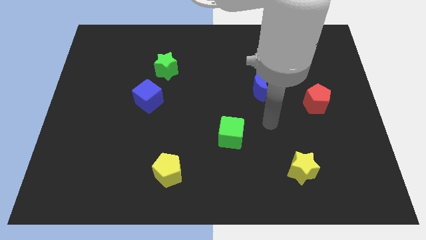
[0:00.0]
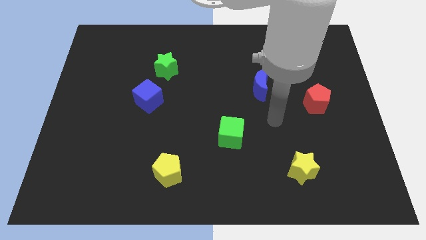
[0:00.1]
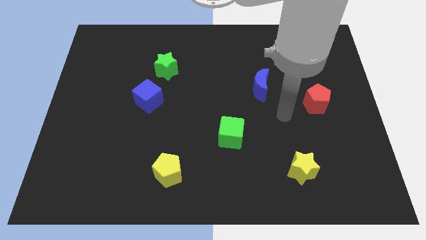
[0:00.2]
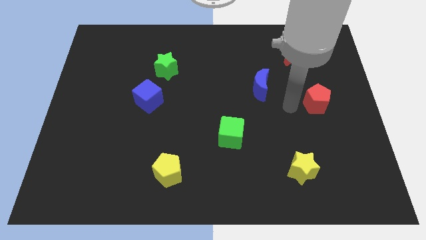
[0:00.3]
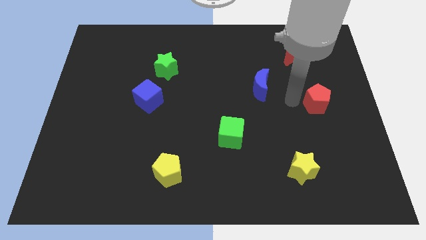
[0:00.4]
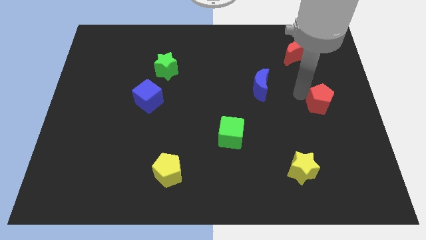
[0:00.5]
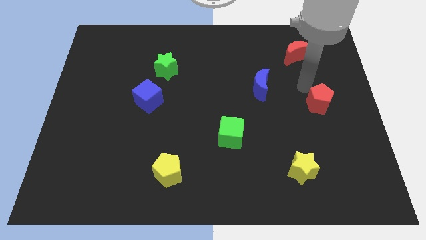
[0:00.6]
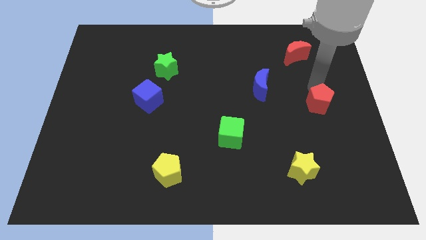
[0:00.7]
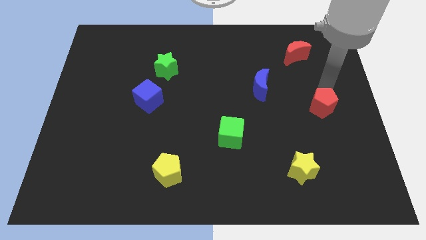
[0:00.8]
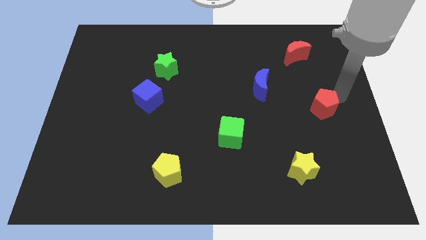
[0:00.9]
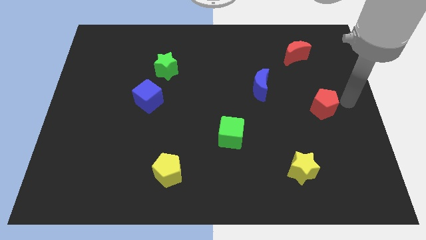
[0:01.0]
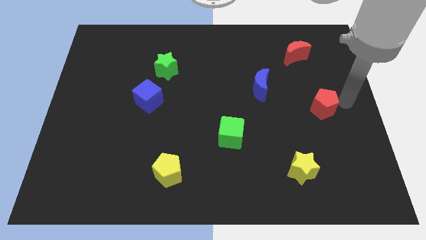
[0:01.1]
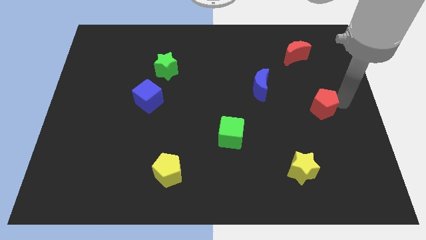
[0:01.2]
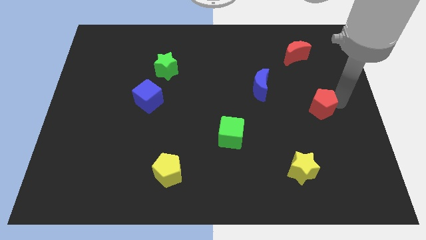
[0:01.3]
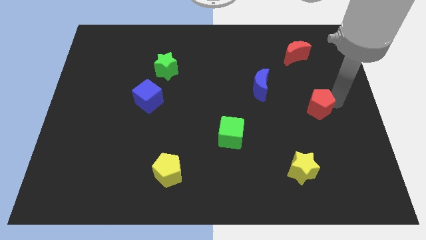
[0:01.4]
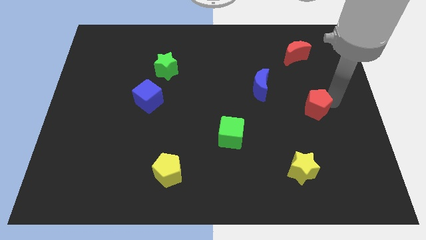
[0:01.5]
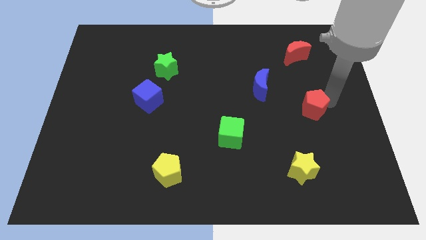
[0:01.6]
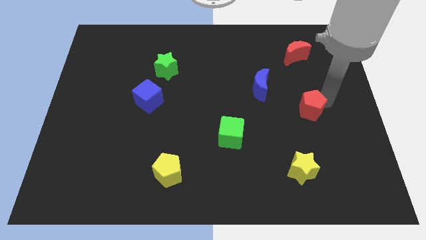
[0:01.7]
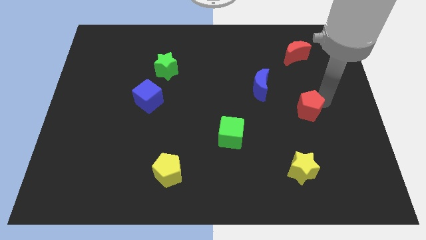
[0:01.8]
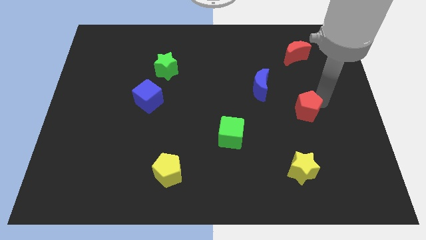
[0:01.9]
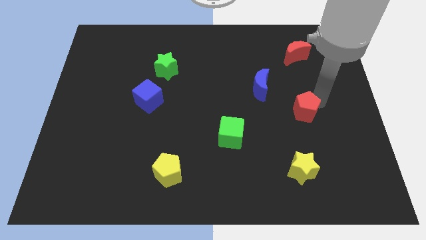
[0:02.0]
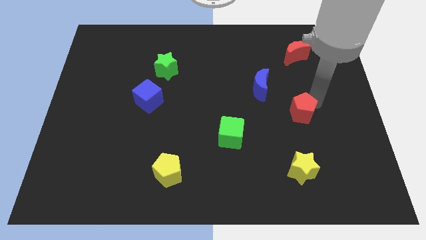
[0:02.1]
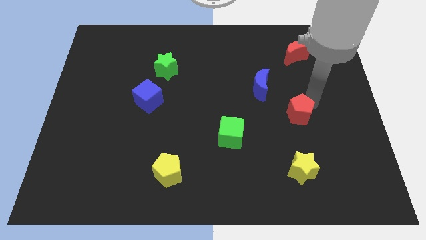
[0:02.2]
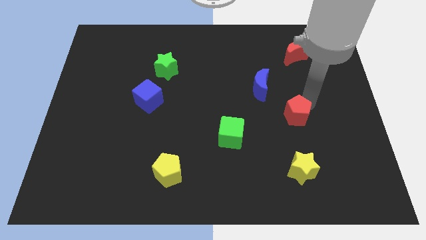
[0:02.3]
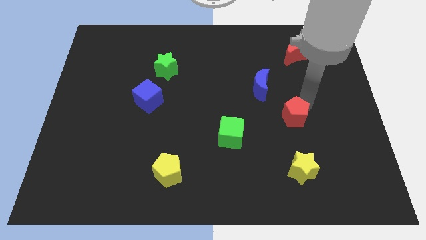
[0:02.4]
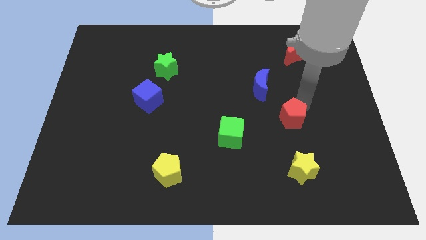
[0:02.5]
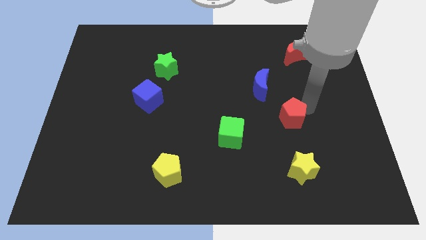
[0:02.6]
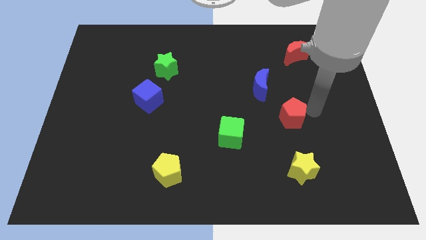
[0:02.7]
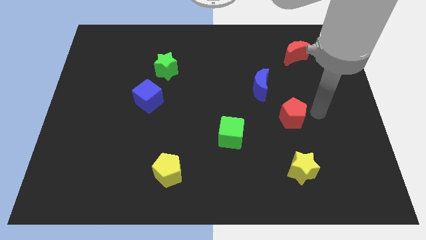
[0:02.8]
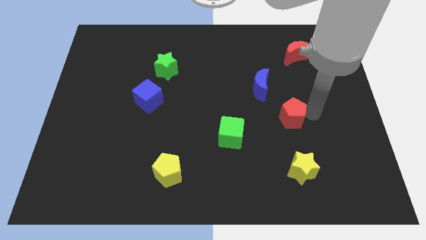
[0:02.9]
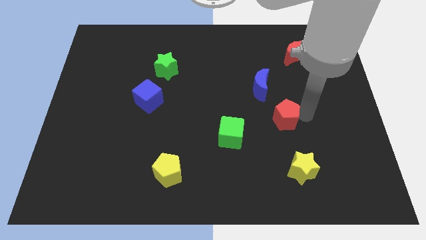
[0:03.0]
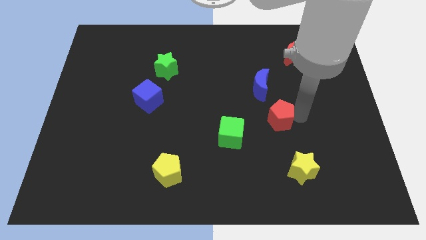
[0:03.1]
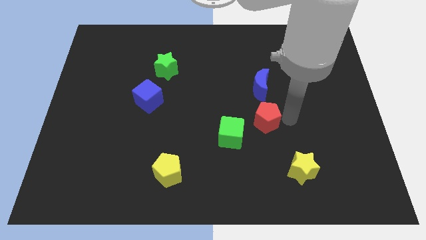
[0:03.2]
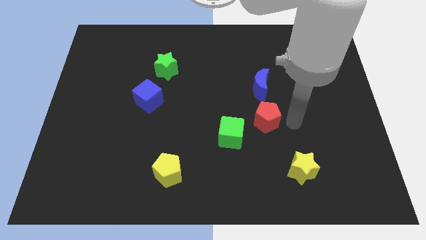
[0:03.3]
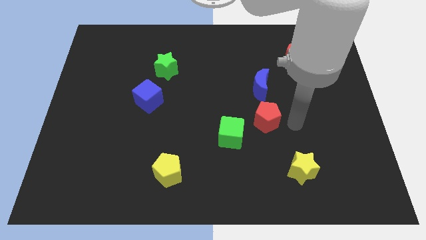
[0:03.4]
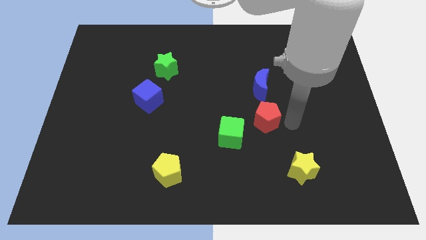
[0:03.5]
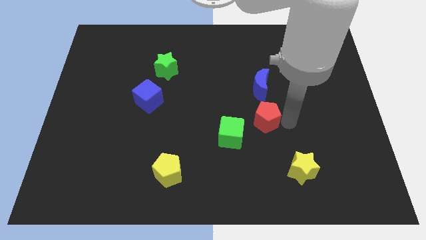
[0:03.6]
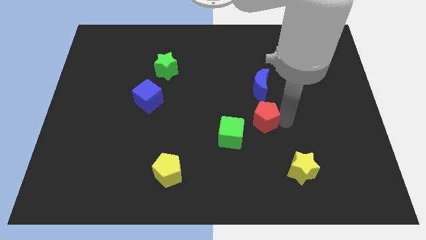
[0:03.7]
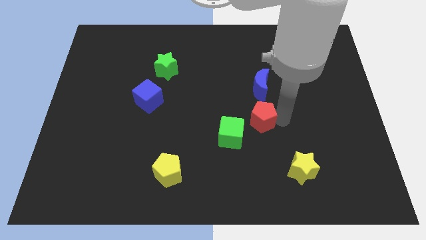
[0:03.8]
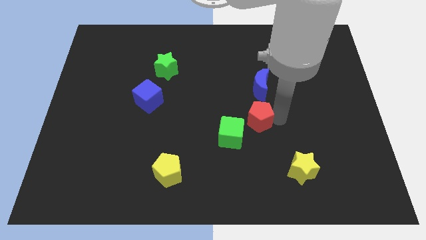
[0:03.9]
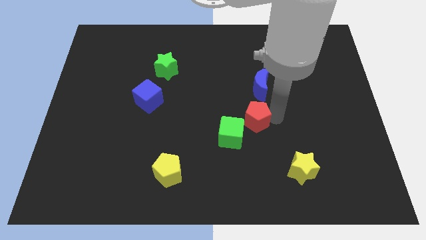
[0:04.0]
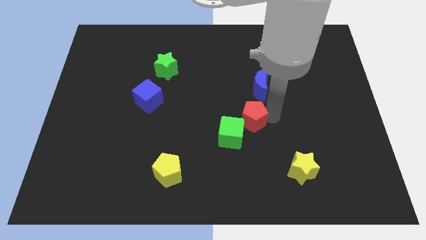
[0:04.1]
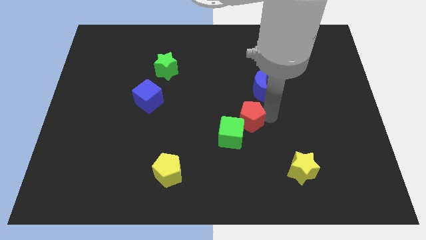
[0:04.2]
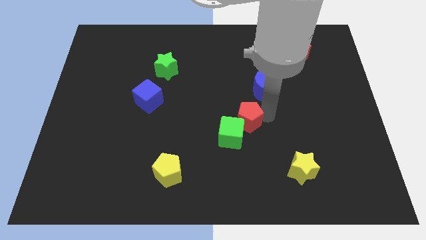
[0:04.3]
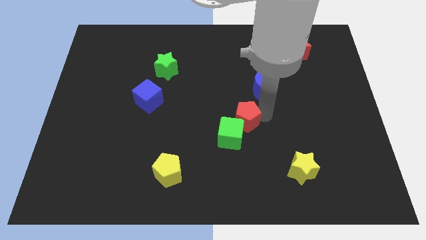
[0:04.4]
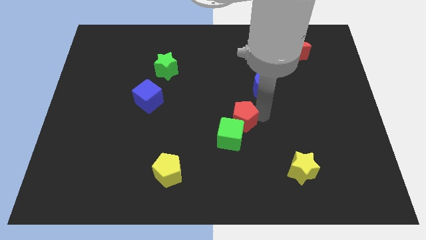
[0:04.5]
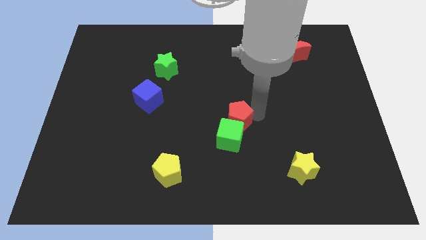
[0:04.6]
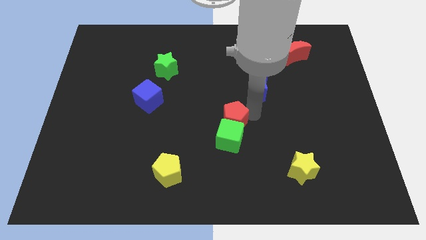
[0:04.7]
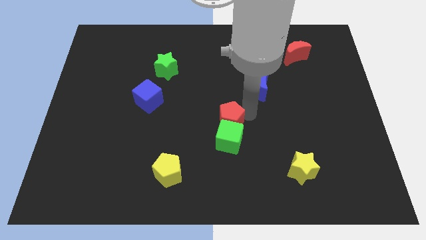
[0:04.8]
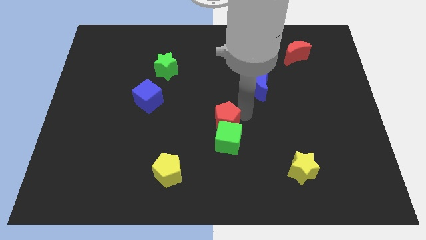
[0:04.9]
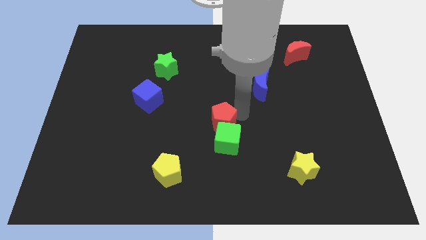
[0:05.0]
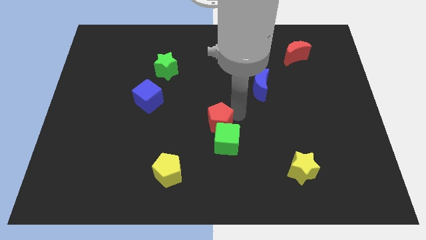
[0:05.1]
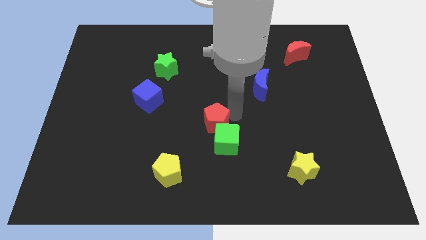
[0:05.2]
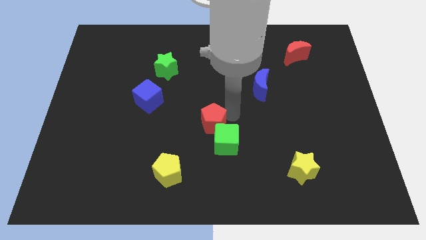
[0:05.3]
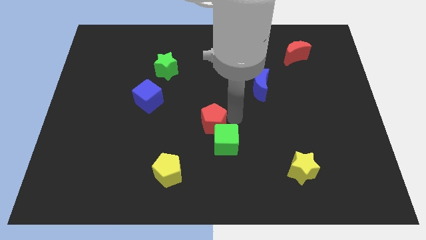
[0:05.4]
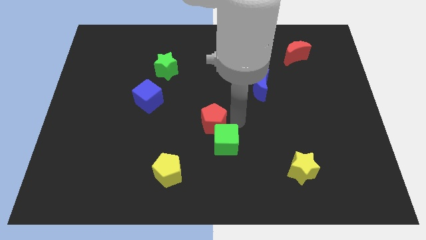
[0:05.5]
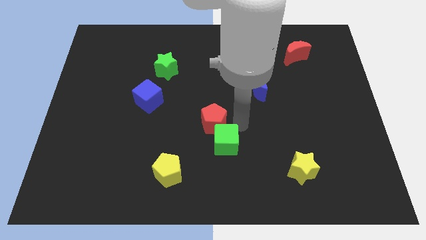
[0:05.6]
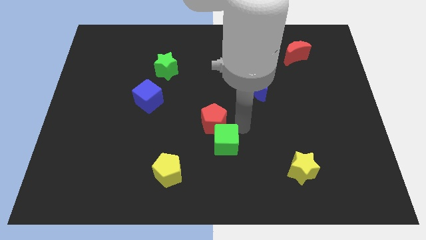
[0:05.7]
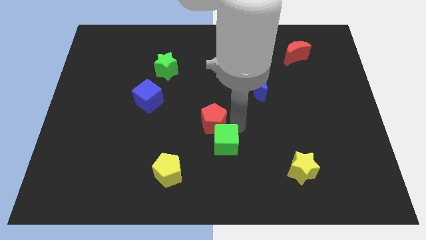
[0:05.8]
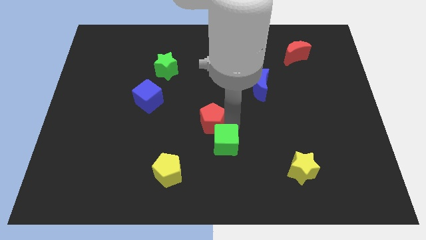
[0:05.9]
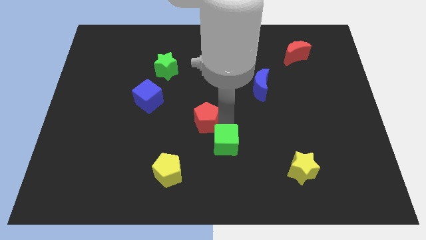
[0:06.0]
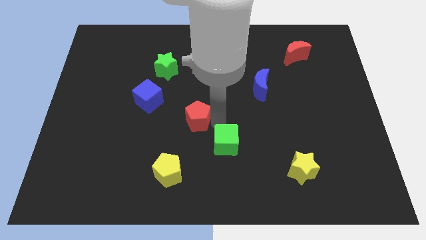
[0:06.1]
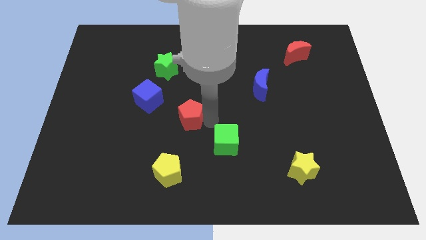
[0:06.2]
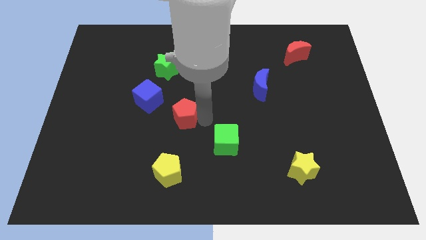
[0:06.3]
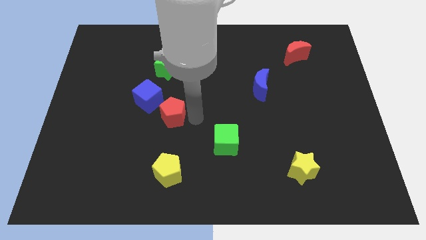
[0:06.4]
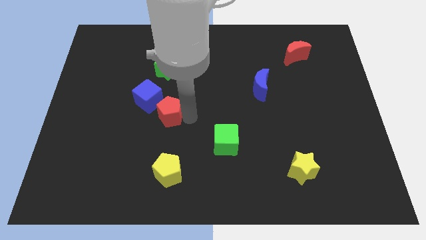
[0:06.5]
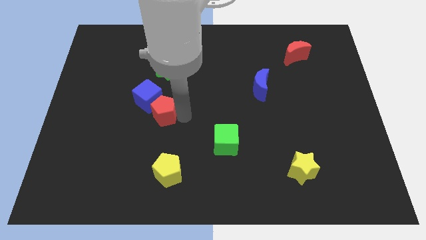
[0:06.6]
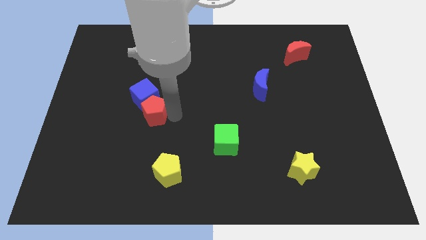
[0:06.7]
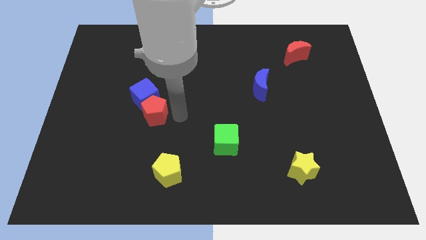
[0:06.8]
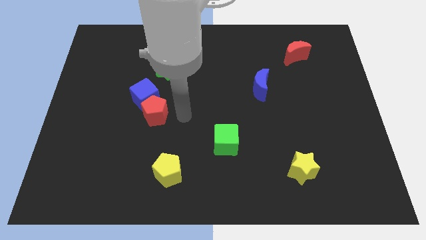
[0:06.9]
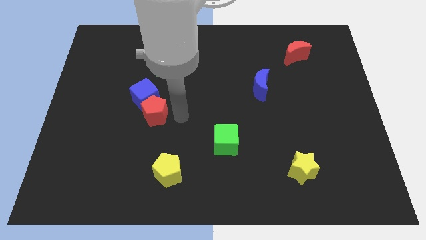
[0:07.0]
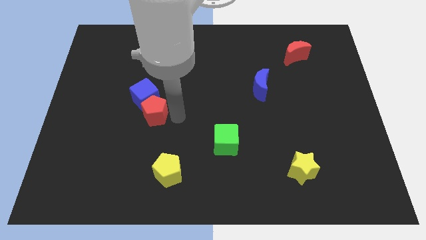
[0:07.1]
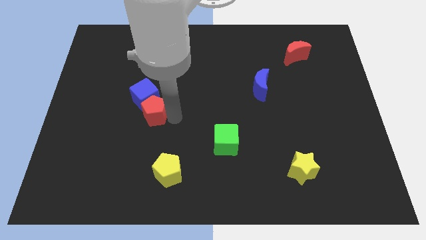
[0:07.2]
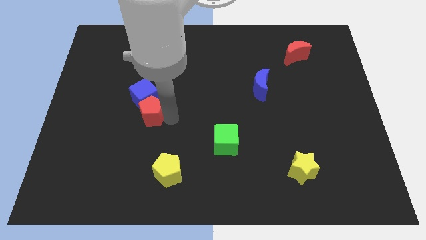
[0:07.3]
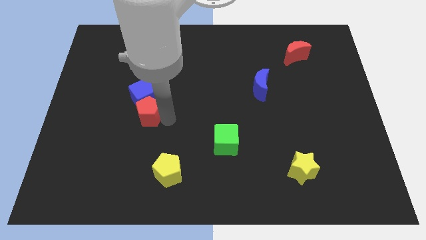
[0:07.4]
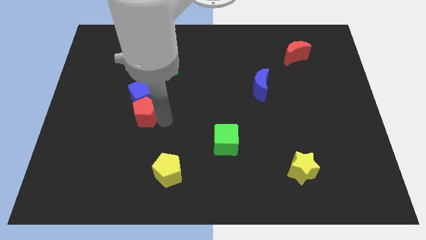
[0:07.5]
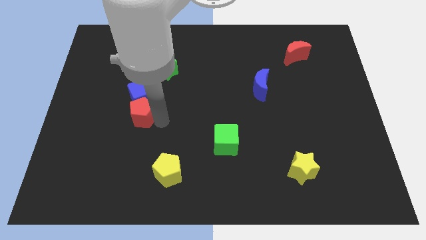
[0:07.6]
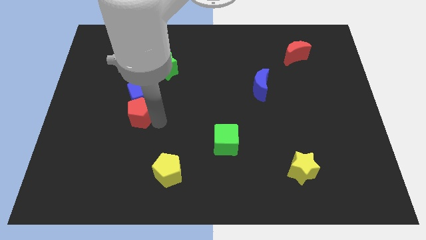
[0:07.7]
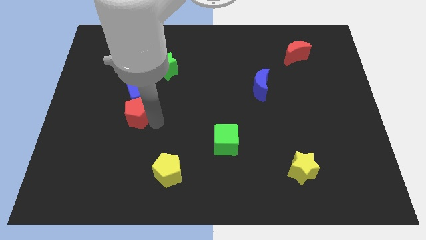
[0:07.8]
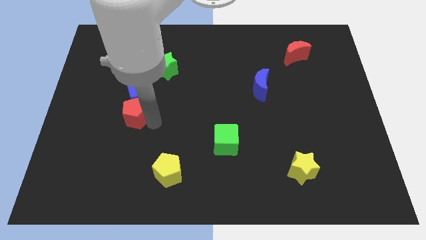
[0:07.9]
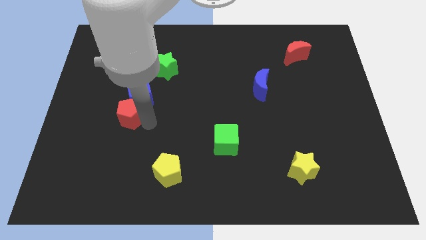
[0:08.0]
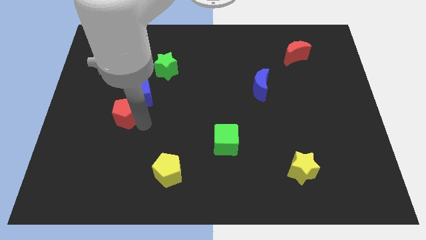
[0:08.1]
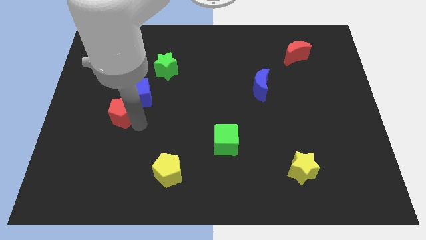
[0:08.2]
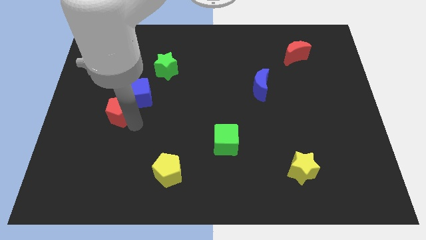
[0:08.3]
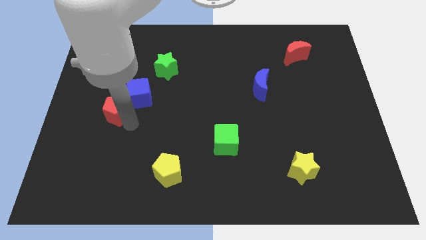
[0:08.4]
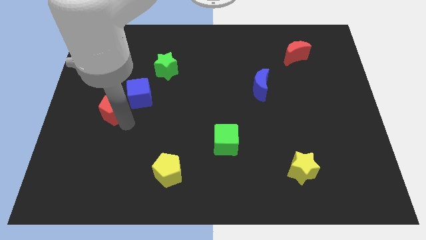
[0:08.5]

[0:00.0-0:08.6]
push the red pentagon just left of the blue cube
